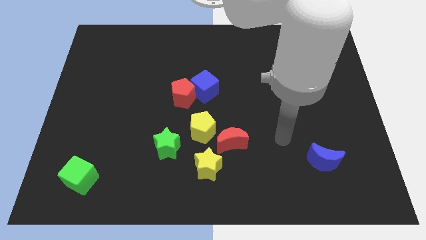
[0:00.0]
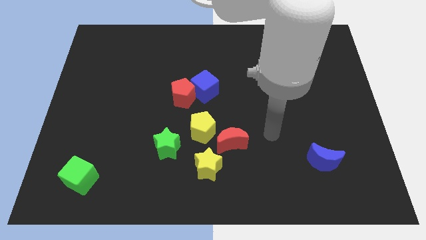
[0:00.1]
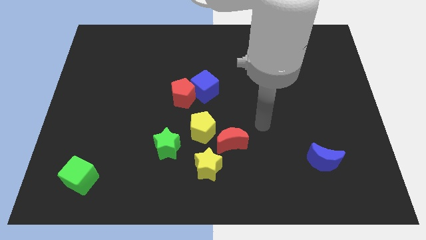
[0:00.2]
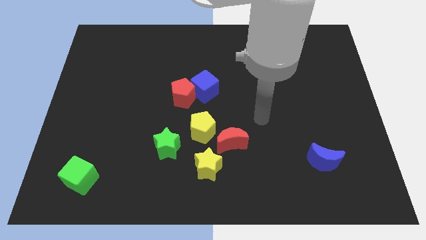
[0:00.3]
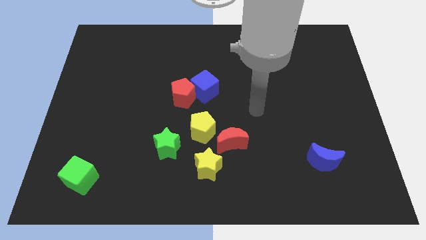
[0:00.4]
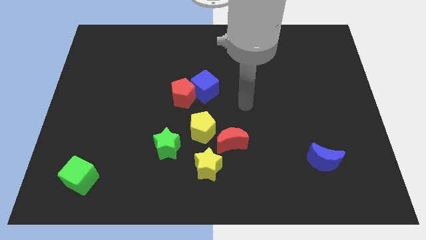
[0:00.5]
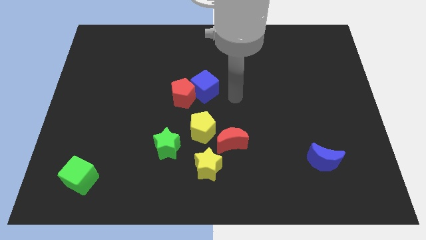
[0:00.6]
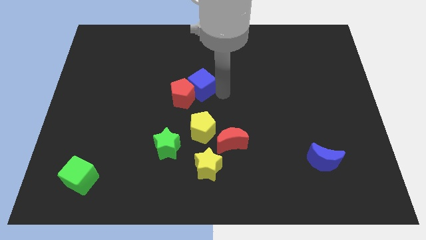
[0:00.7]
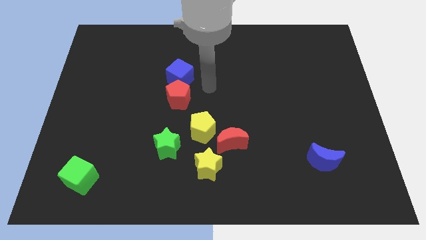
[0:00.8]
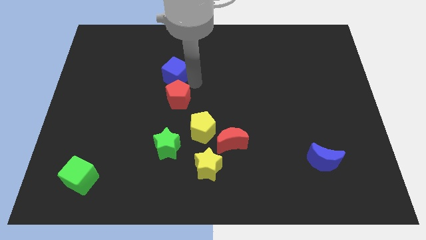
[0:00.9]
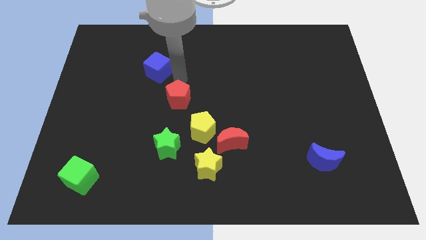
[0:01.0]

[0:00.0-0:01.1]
pull the red pentagon apart from the blue cube

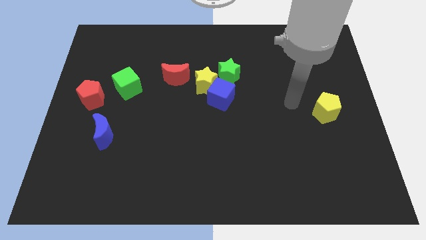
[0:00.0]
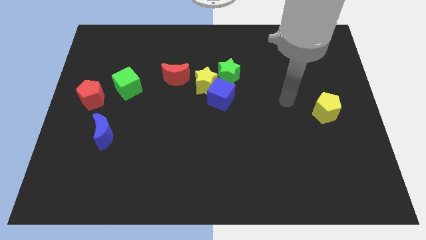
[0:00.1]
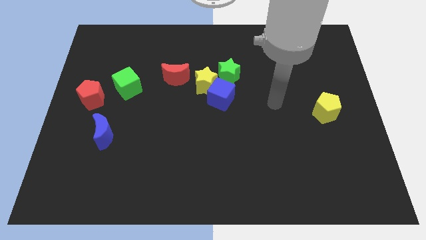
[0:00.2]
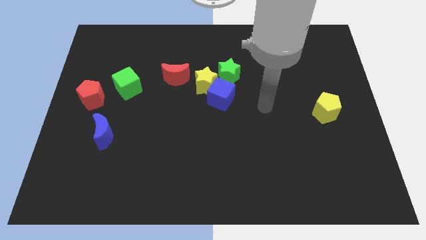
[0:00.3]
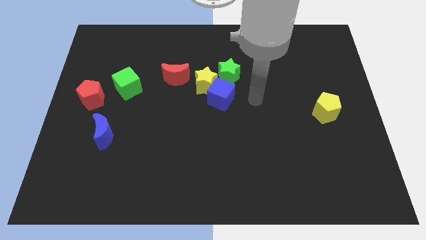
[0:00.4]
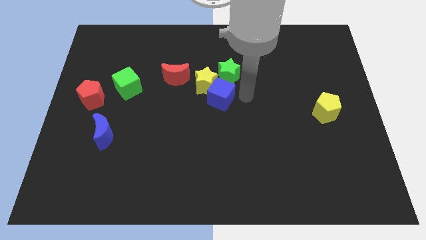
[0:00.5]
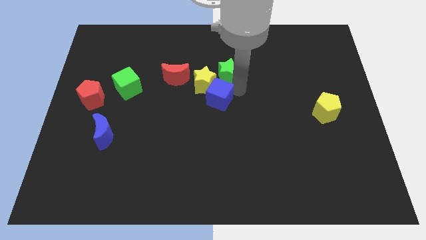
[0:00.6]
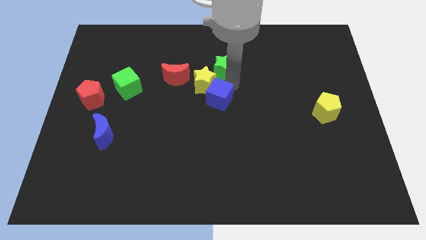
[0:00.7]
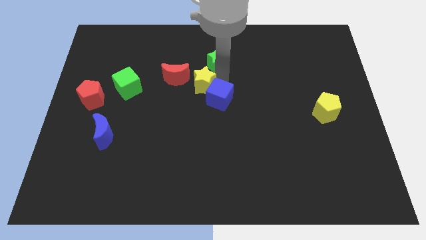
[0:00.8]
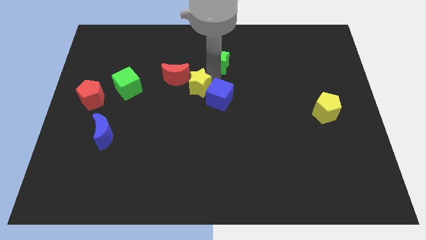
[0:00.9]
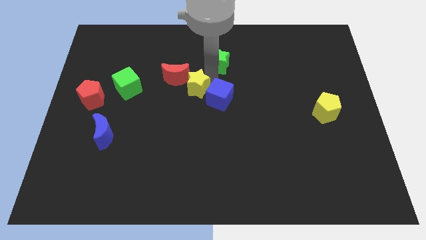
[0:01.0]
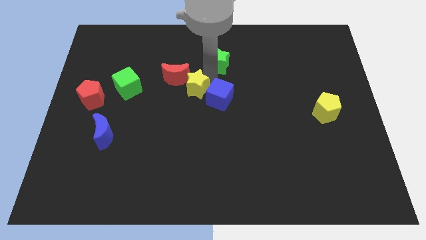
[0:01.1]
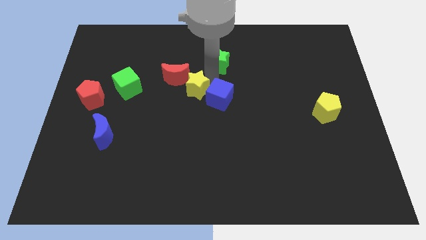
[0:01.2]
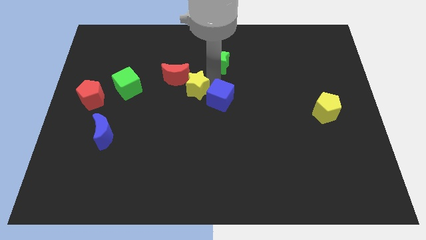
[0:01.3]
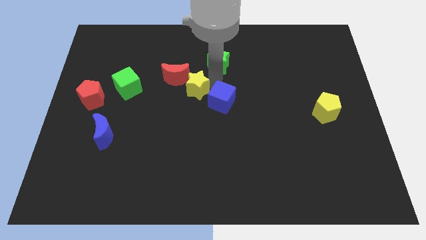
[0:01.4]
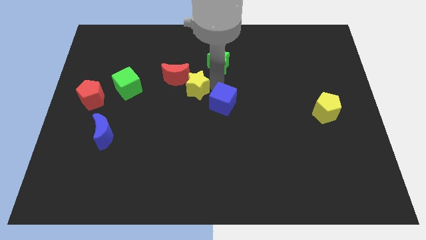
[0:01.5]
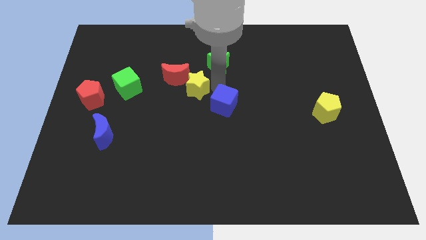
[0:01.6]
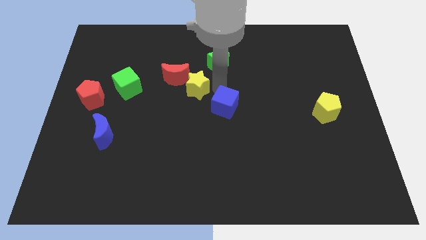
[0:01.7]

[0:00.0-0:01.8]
move the blue cube away from the yellow star and green star

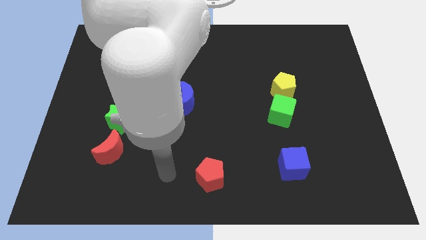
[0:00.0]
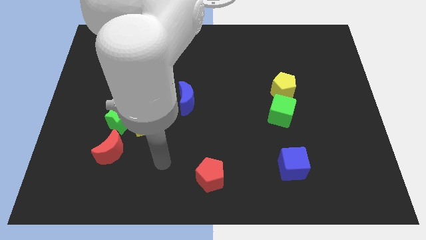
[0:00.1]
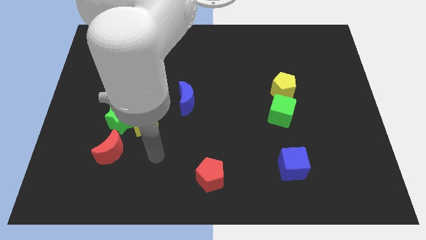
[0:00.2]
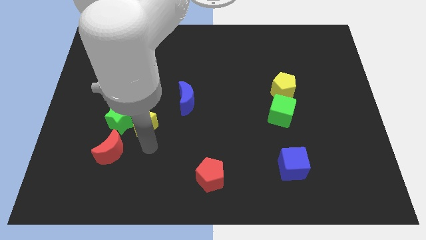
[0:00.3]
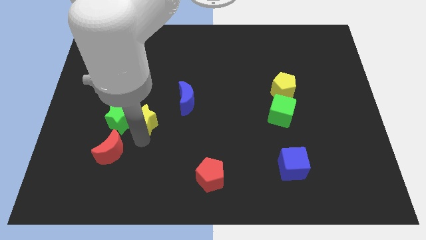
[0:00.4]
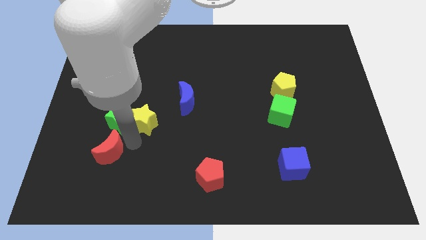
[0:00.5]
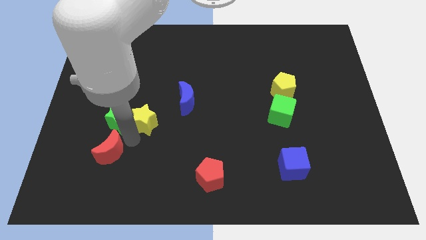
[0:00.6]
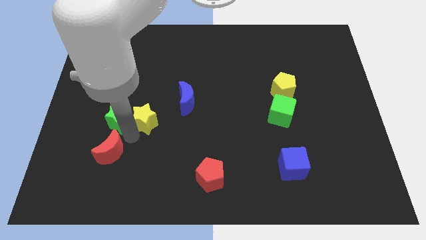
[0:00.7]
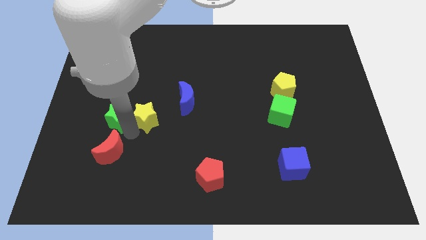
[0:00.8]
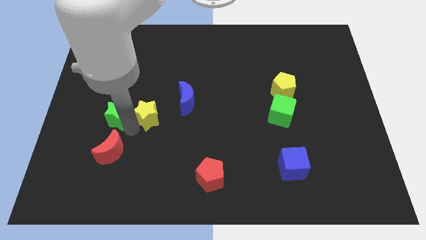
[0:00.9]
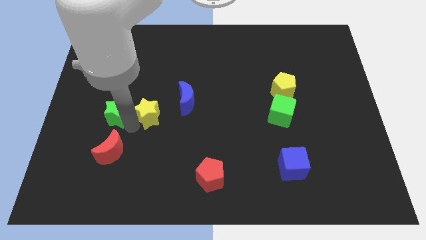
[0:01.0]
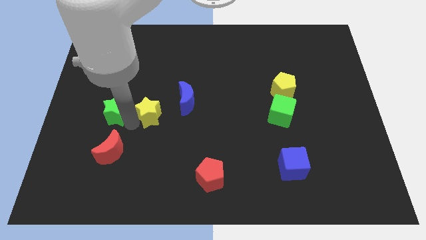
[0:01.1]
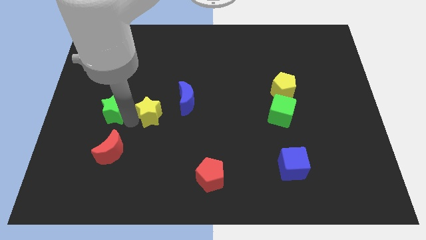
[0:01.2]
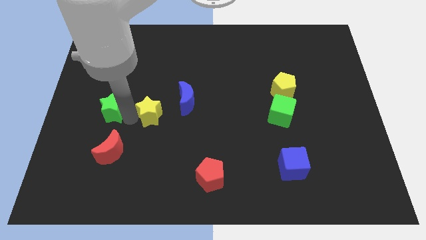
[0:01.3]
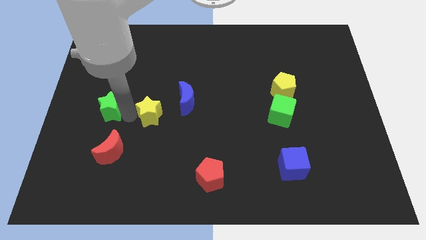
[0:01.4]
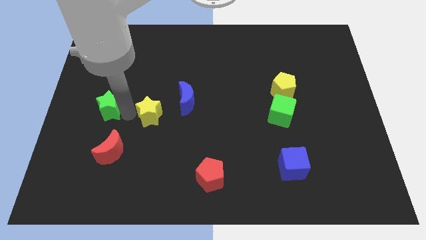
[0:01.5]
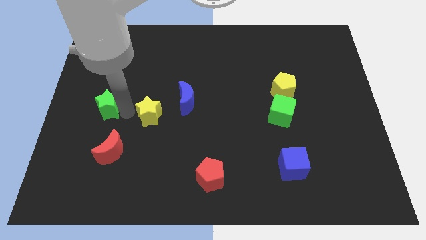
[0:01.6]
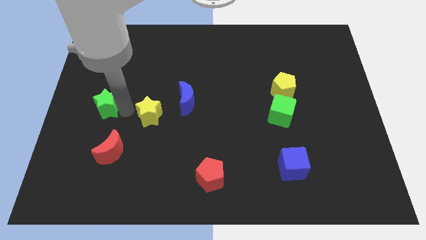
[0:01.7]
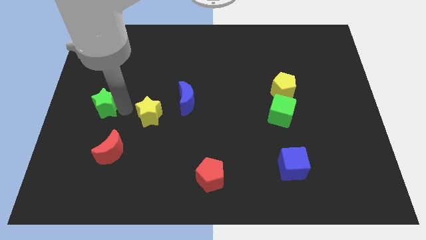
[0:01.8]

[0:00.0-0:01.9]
separate the green star from the yellow star and red moon

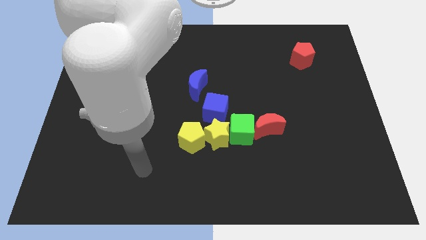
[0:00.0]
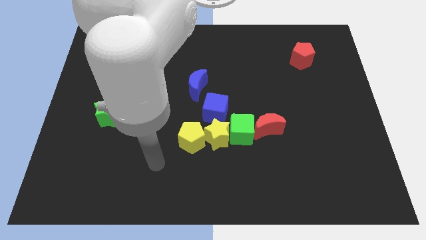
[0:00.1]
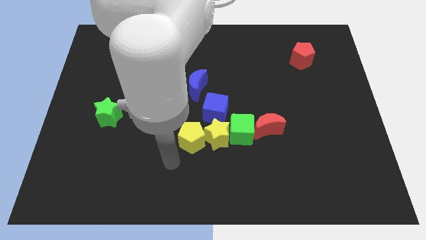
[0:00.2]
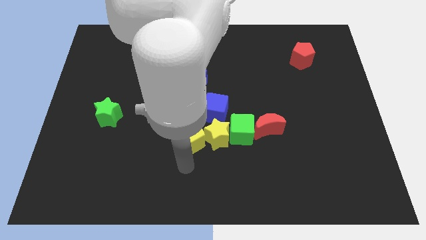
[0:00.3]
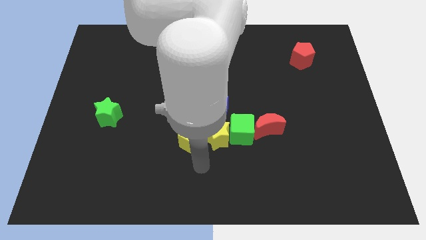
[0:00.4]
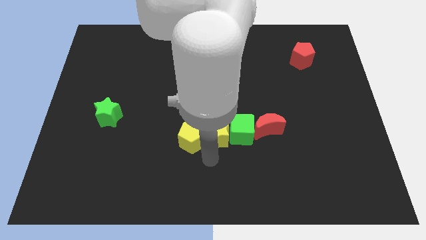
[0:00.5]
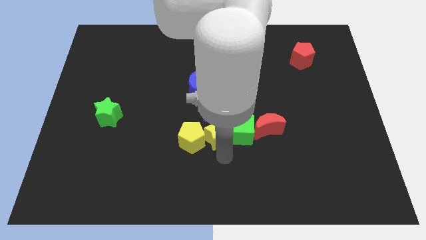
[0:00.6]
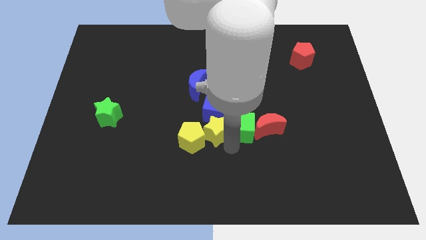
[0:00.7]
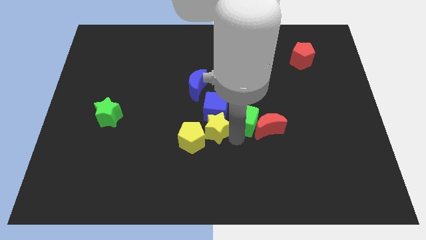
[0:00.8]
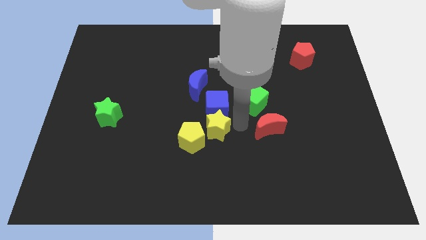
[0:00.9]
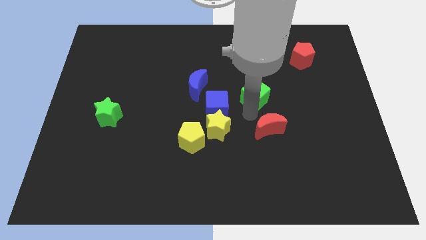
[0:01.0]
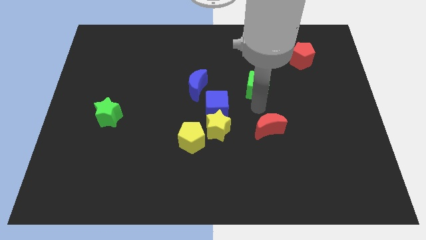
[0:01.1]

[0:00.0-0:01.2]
separate the red moon from the green cube

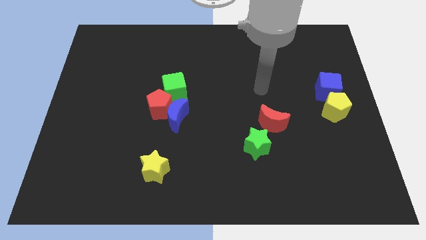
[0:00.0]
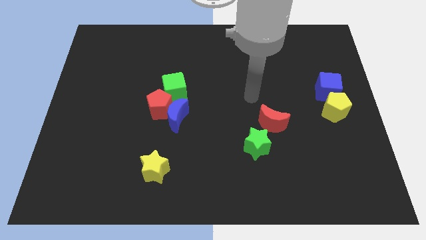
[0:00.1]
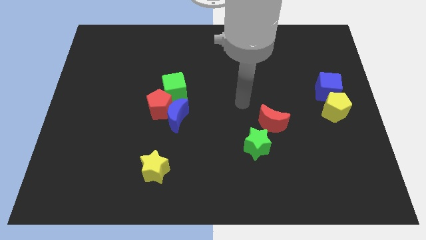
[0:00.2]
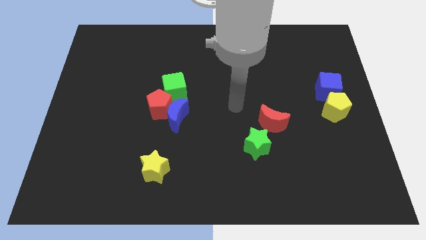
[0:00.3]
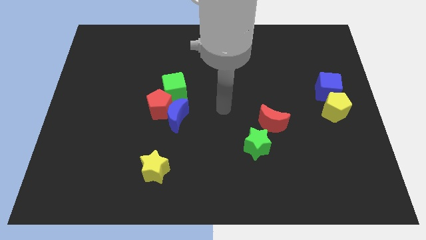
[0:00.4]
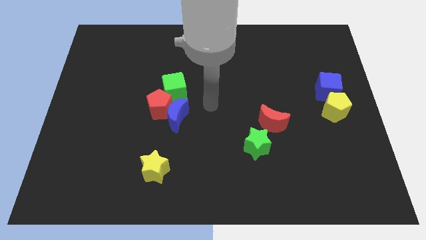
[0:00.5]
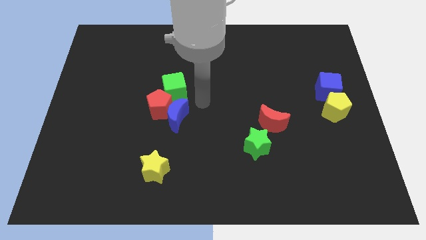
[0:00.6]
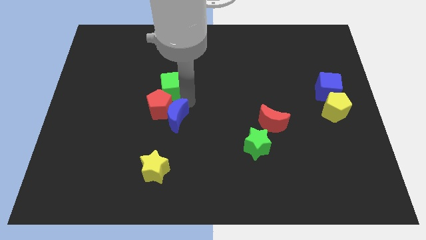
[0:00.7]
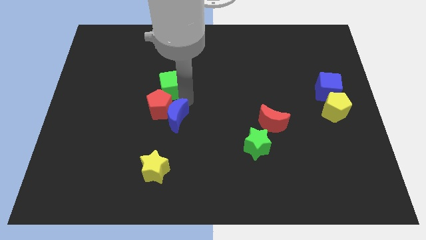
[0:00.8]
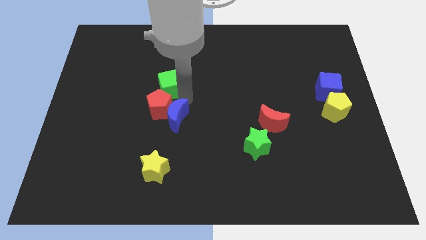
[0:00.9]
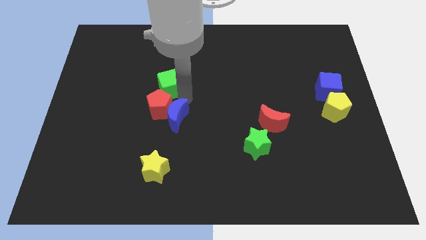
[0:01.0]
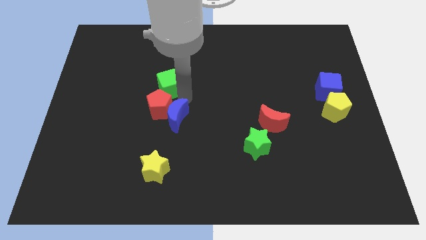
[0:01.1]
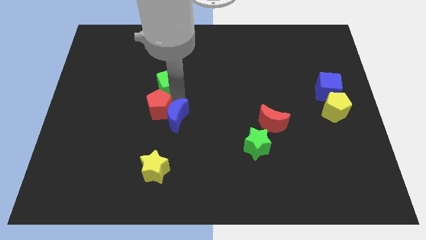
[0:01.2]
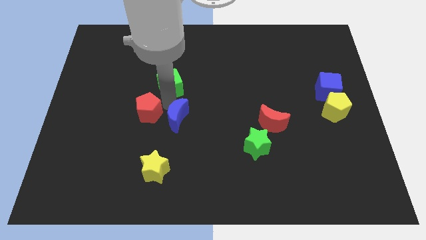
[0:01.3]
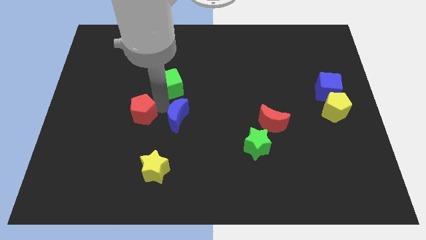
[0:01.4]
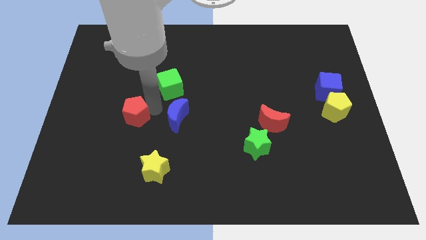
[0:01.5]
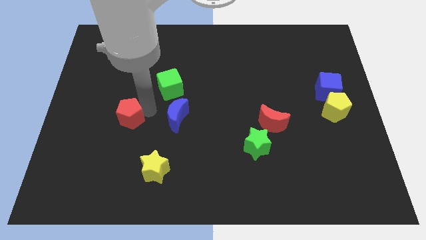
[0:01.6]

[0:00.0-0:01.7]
move the red pentagon away from the blue moon and green cube

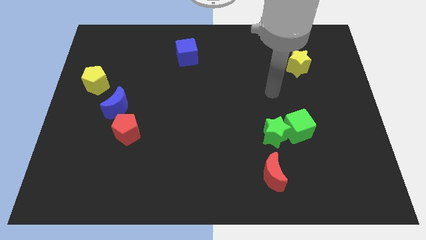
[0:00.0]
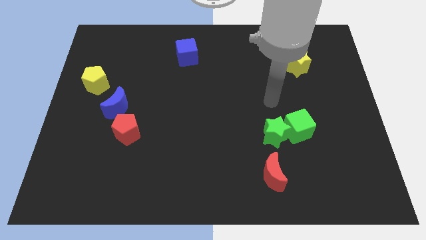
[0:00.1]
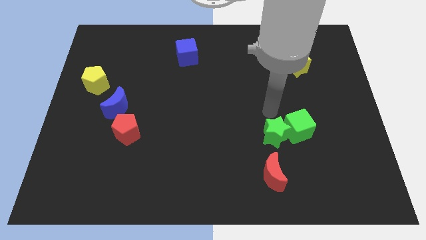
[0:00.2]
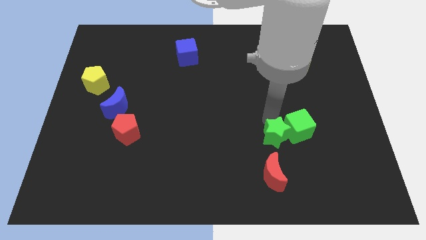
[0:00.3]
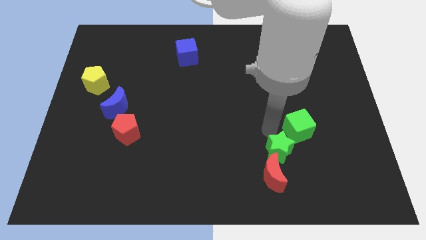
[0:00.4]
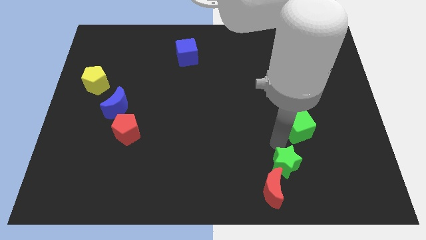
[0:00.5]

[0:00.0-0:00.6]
pull the green cube apart from the green star

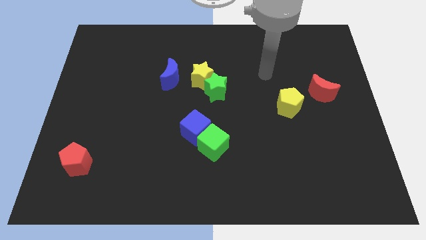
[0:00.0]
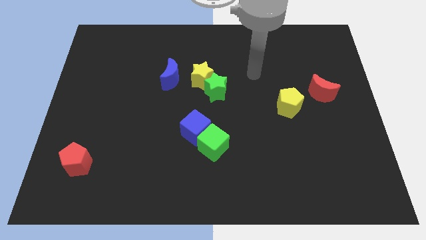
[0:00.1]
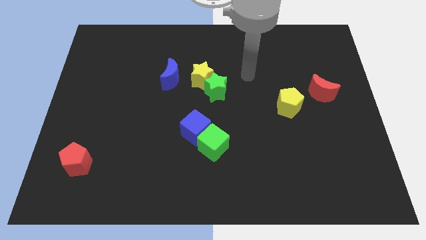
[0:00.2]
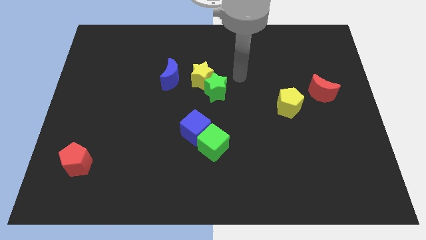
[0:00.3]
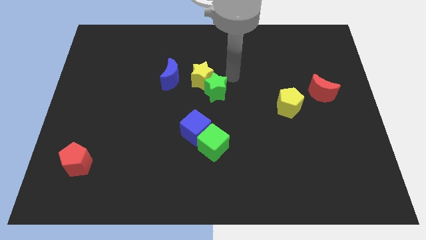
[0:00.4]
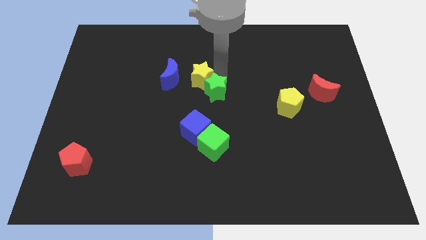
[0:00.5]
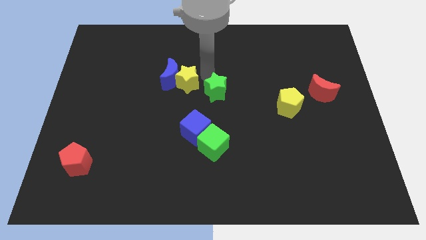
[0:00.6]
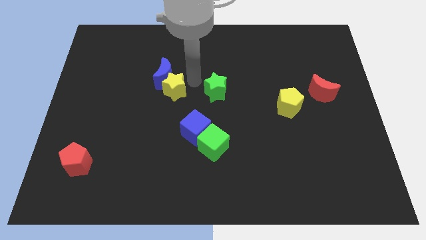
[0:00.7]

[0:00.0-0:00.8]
move the green star away from the yellow star
